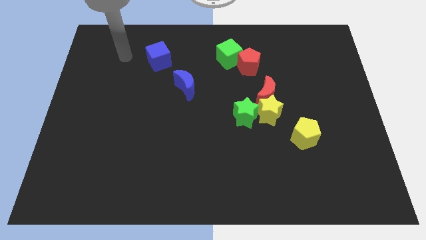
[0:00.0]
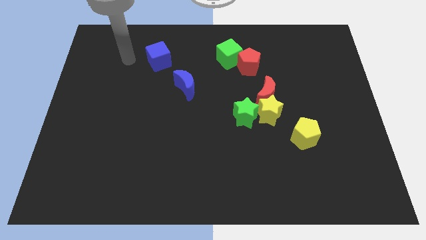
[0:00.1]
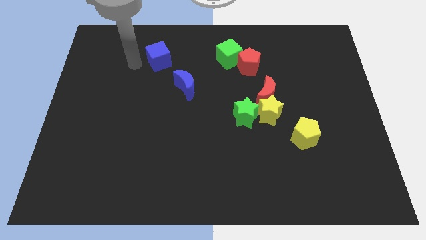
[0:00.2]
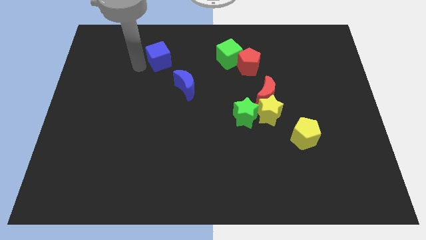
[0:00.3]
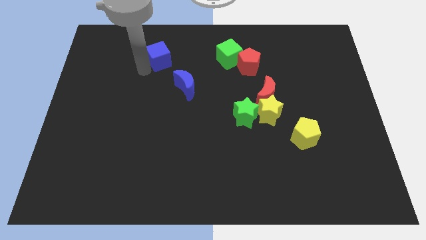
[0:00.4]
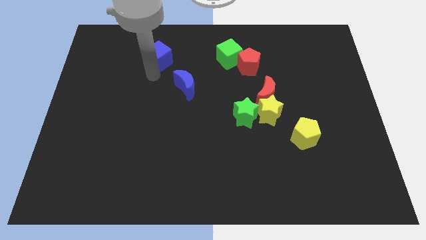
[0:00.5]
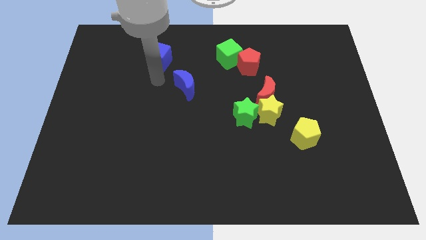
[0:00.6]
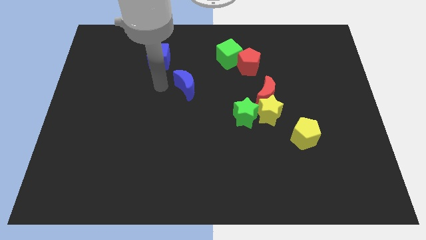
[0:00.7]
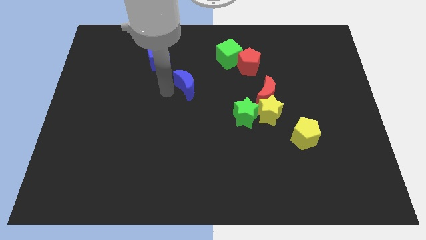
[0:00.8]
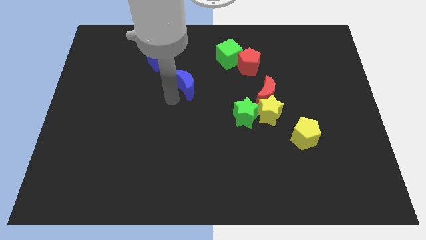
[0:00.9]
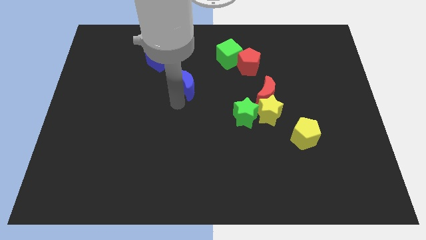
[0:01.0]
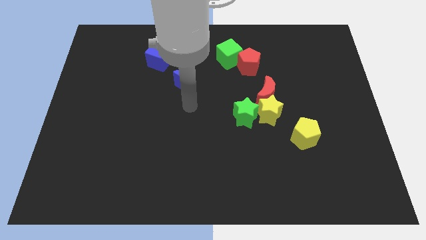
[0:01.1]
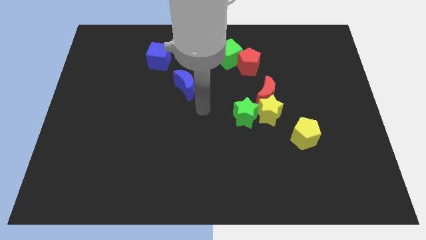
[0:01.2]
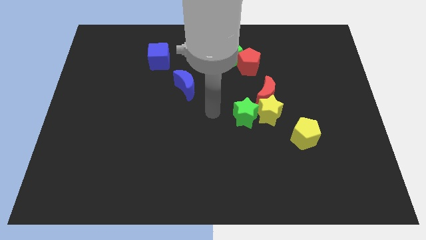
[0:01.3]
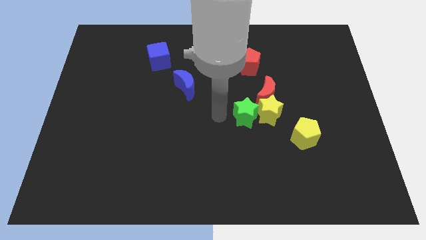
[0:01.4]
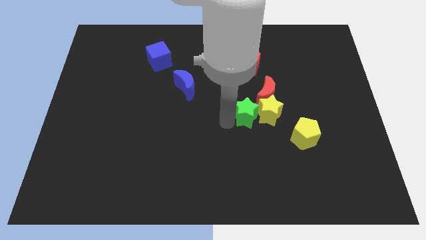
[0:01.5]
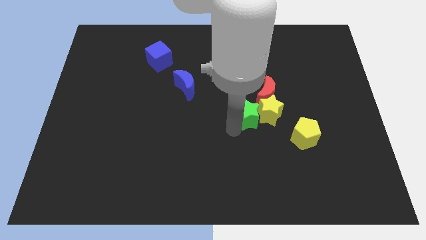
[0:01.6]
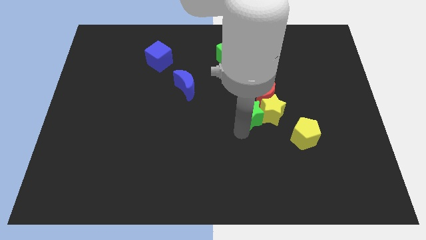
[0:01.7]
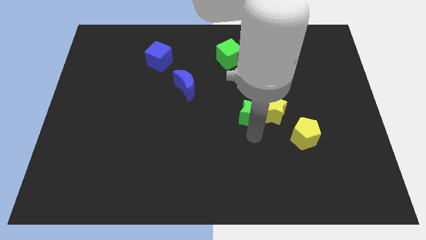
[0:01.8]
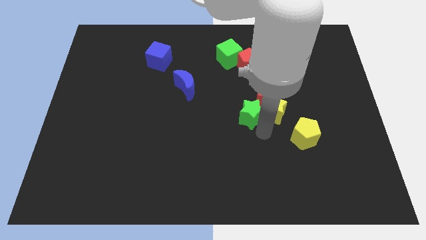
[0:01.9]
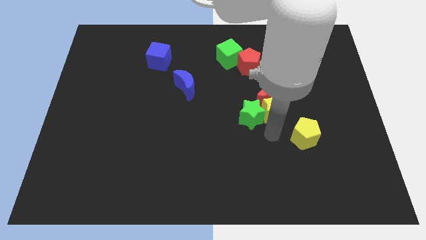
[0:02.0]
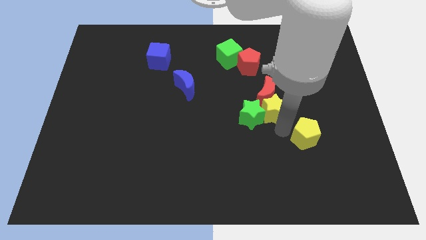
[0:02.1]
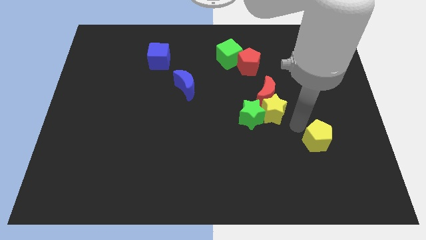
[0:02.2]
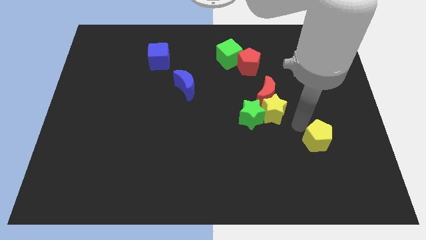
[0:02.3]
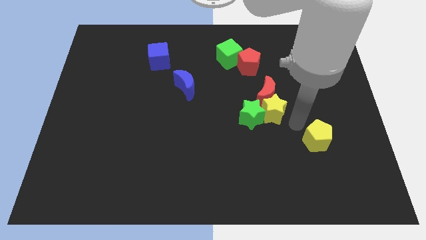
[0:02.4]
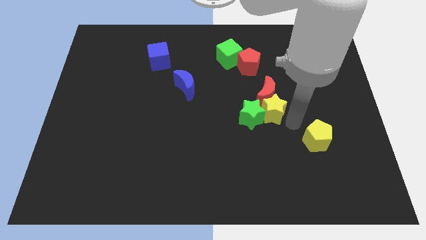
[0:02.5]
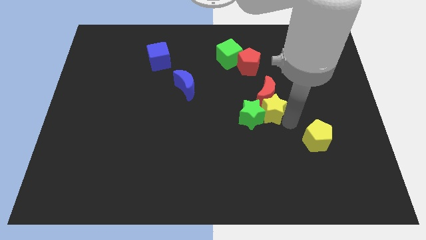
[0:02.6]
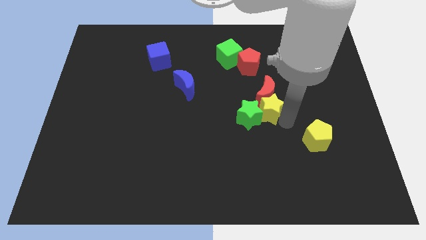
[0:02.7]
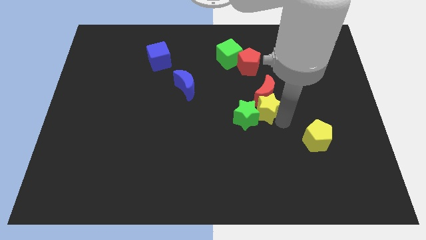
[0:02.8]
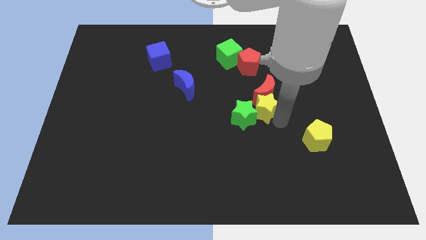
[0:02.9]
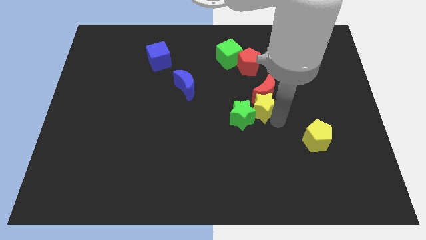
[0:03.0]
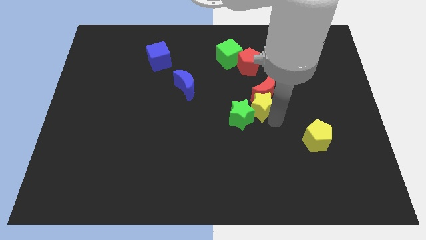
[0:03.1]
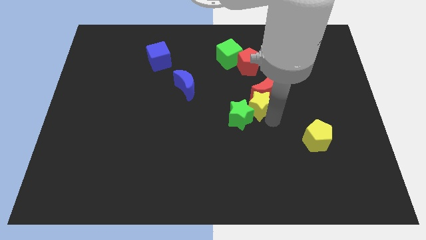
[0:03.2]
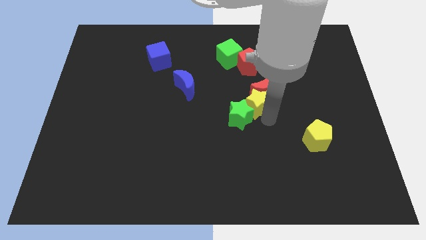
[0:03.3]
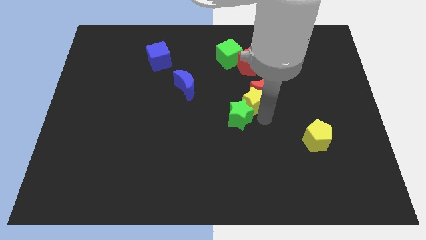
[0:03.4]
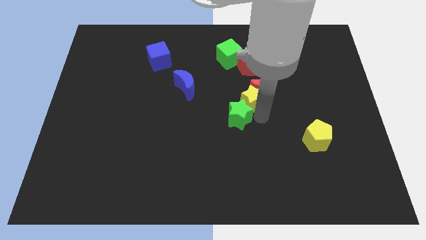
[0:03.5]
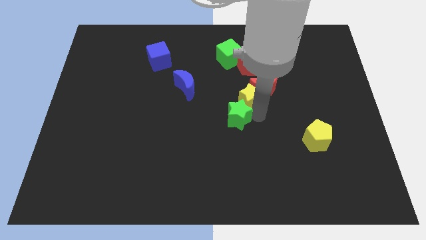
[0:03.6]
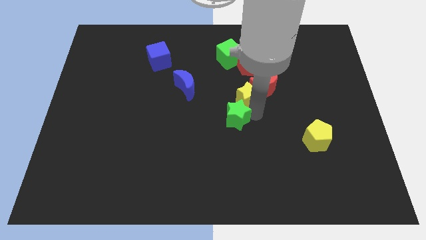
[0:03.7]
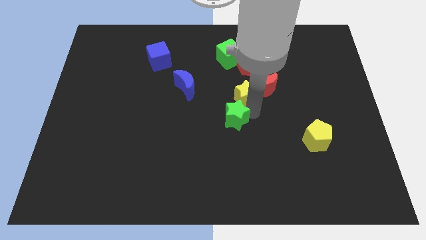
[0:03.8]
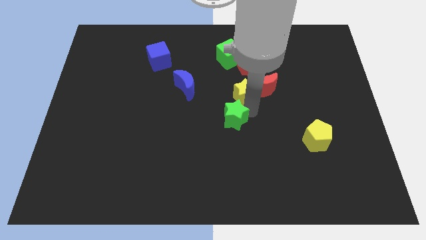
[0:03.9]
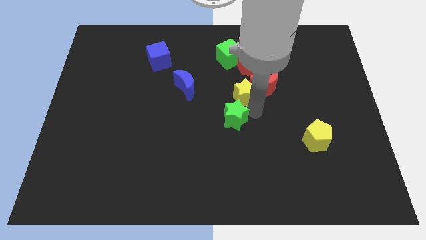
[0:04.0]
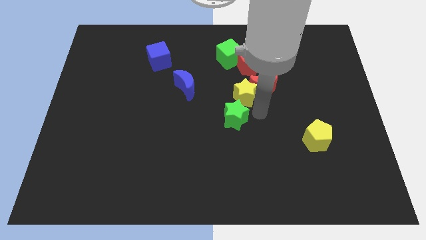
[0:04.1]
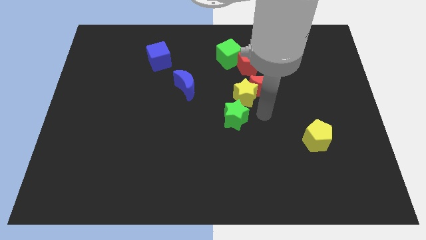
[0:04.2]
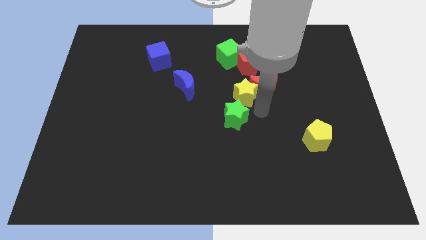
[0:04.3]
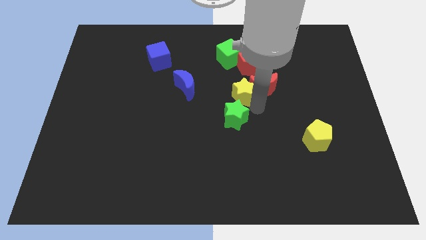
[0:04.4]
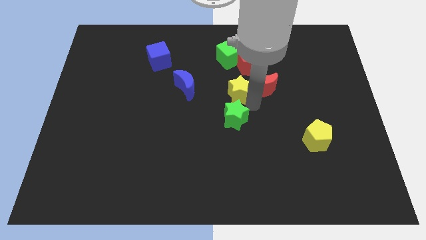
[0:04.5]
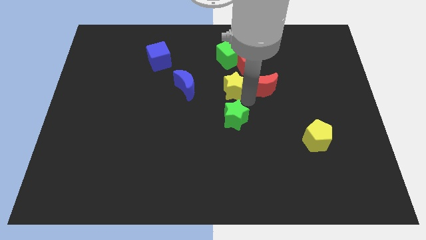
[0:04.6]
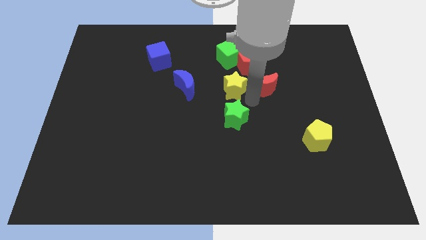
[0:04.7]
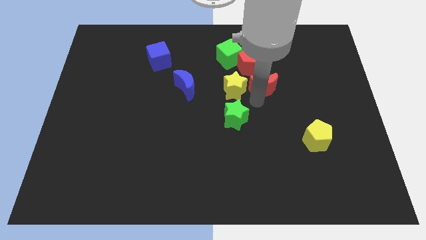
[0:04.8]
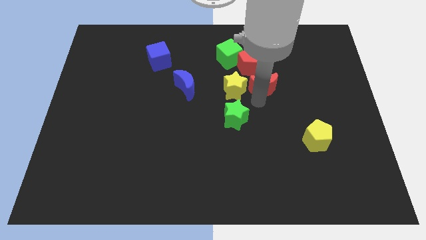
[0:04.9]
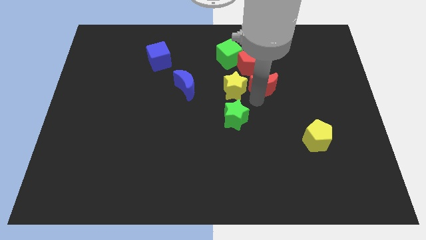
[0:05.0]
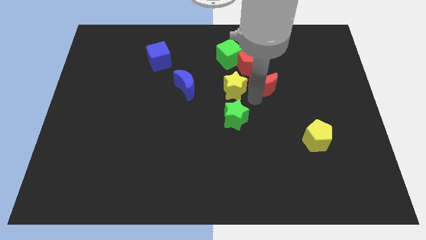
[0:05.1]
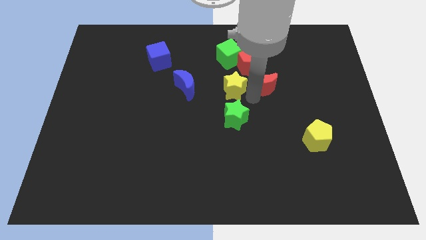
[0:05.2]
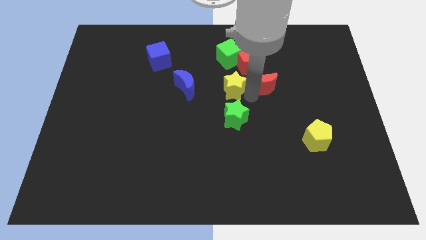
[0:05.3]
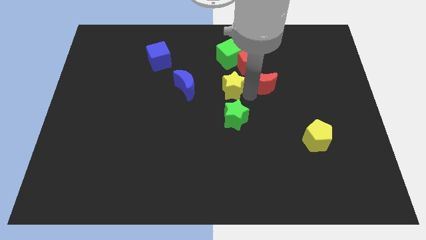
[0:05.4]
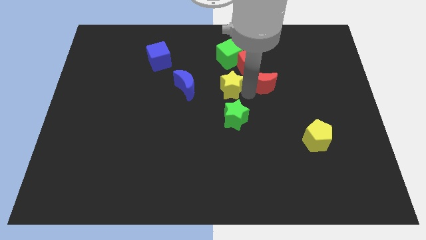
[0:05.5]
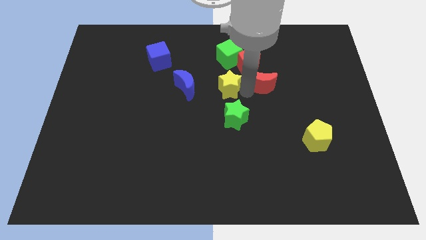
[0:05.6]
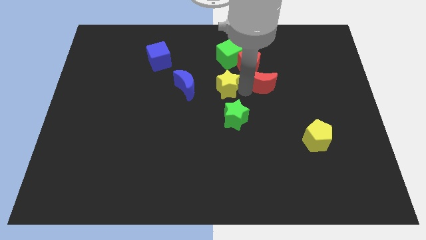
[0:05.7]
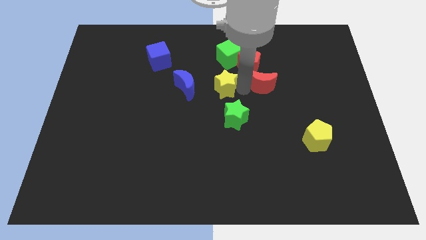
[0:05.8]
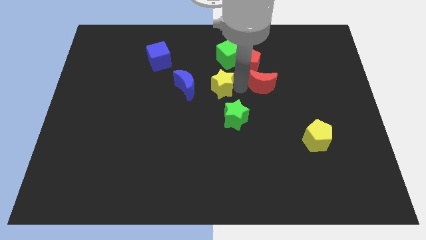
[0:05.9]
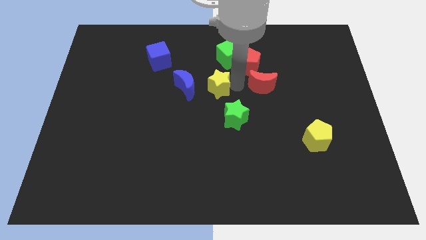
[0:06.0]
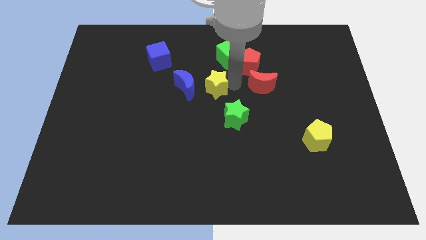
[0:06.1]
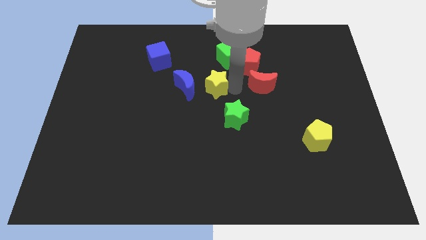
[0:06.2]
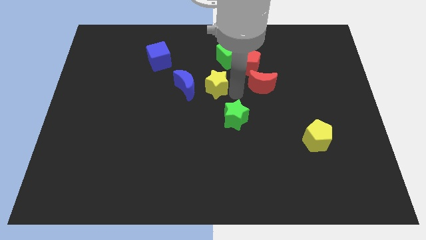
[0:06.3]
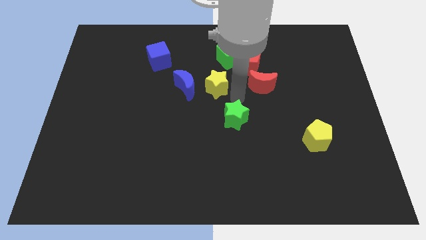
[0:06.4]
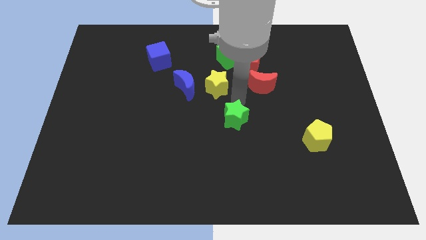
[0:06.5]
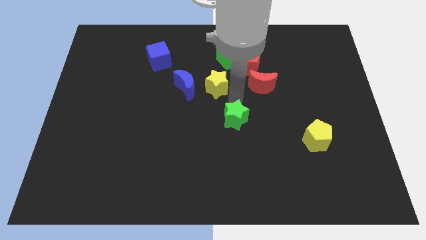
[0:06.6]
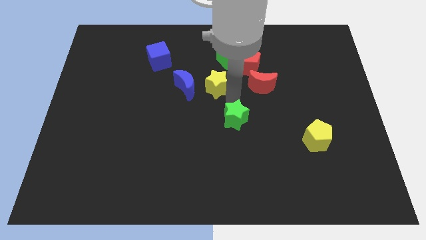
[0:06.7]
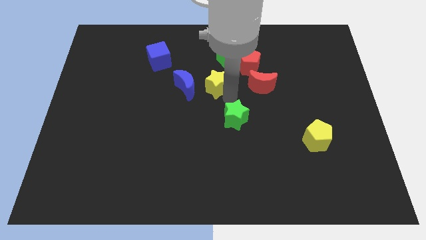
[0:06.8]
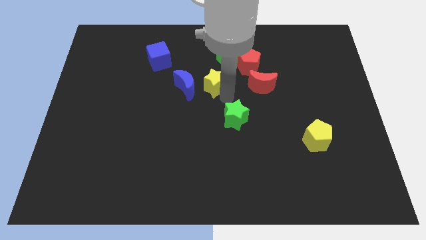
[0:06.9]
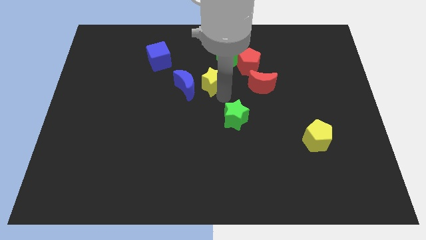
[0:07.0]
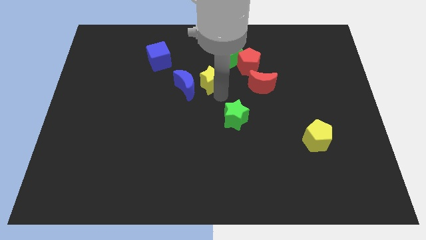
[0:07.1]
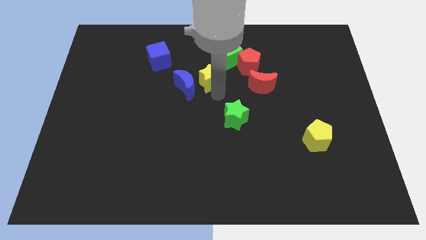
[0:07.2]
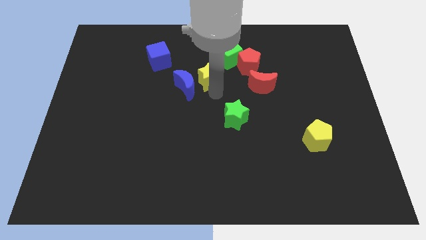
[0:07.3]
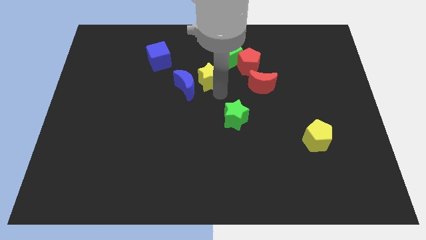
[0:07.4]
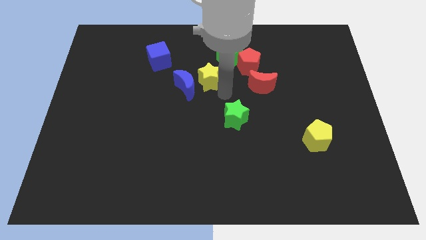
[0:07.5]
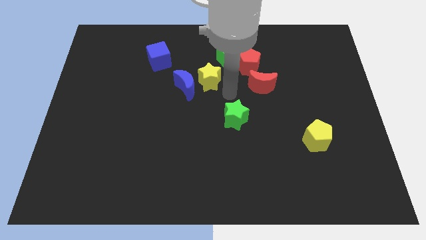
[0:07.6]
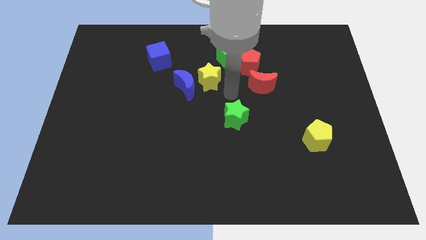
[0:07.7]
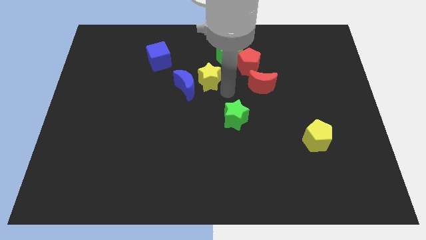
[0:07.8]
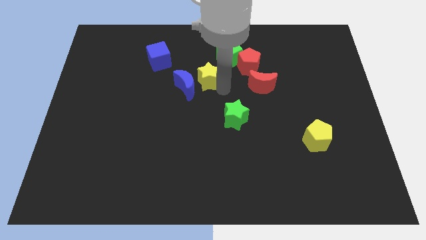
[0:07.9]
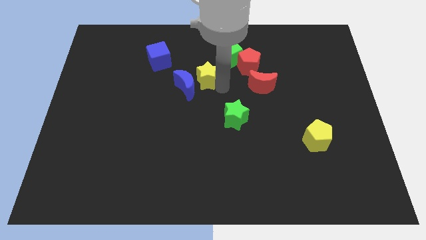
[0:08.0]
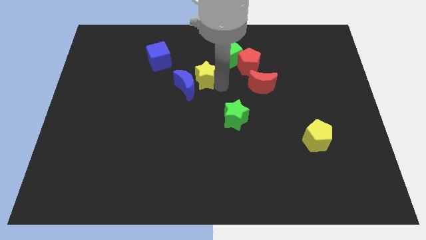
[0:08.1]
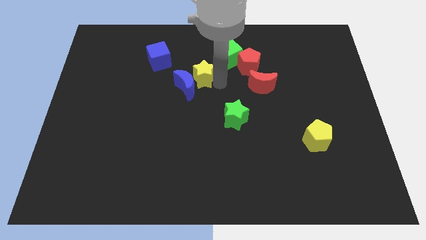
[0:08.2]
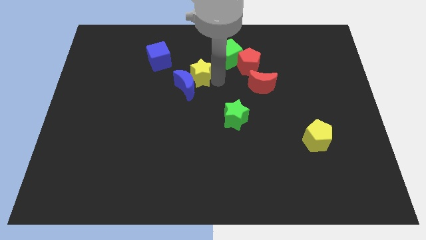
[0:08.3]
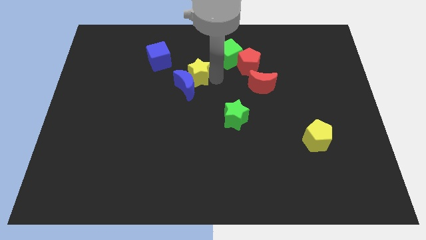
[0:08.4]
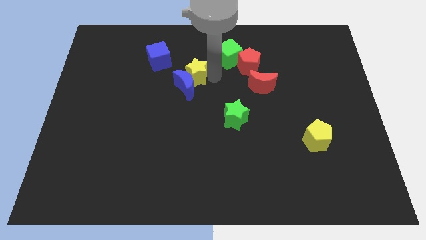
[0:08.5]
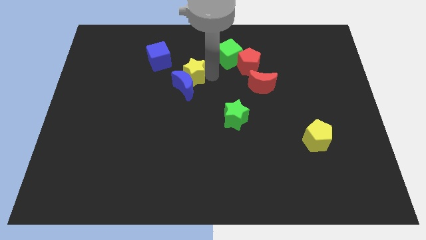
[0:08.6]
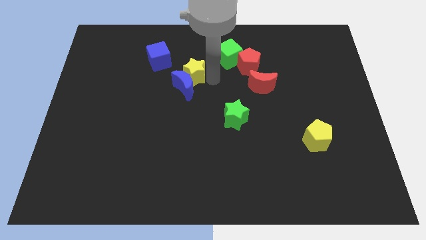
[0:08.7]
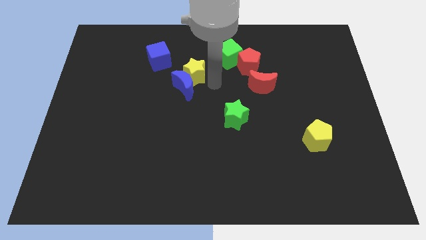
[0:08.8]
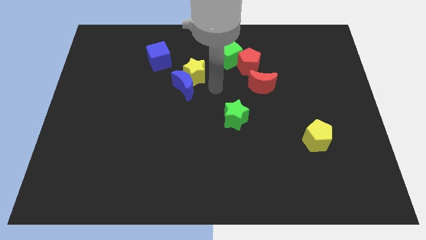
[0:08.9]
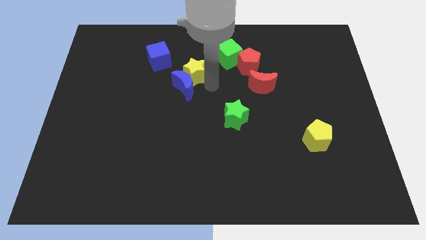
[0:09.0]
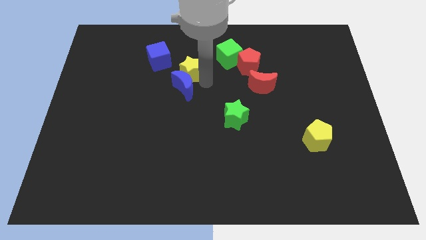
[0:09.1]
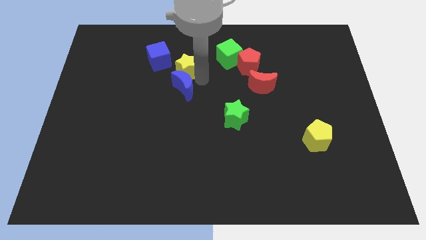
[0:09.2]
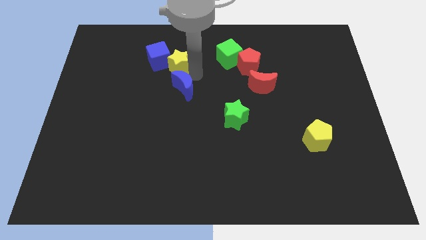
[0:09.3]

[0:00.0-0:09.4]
slide the yellow star close to the blue cube
